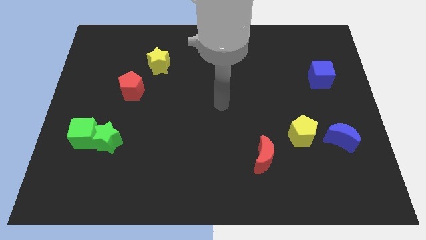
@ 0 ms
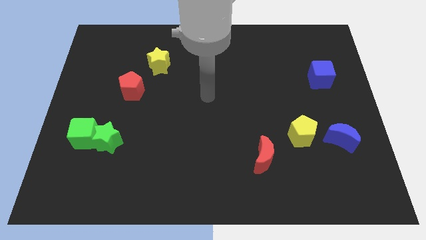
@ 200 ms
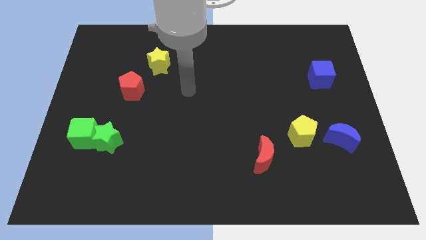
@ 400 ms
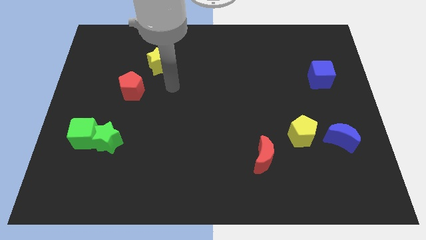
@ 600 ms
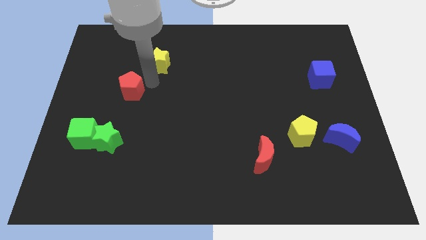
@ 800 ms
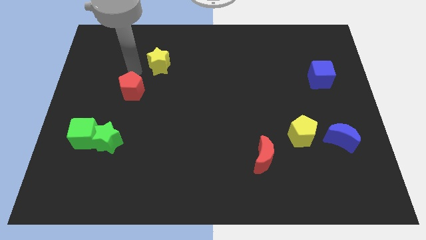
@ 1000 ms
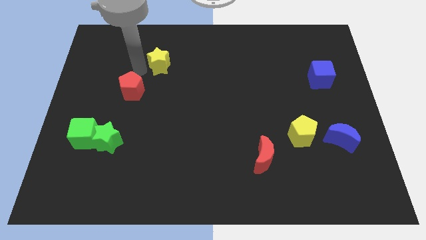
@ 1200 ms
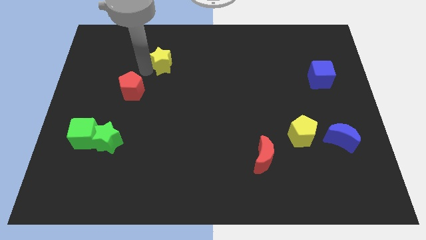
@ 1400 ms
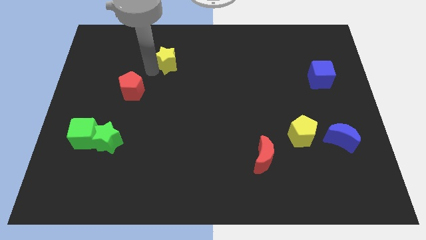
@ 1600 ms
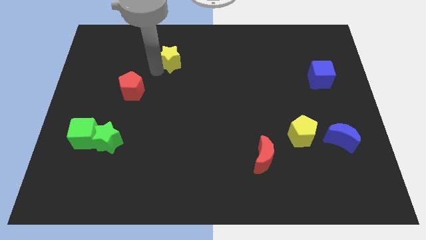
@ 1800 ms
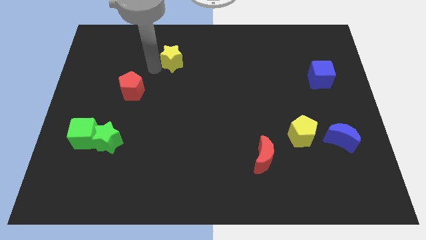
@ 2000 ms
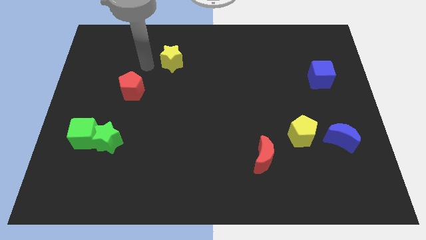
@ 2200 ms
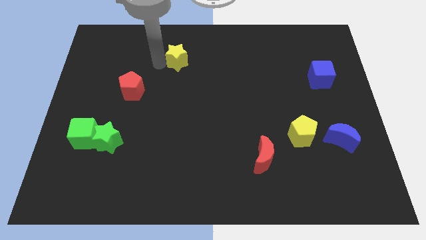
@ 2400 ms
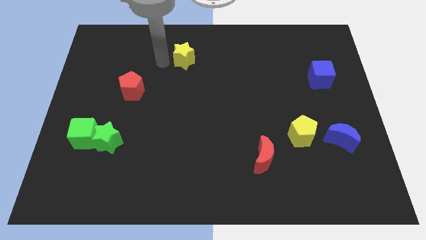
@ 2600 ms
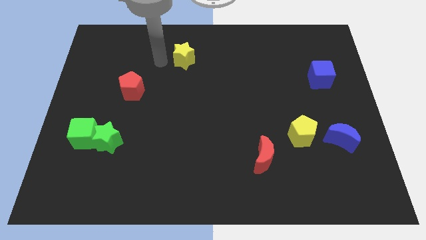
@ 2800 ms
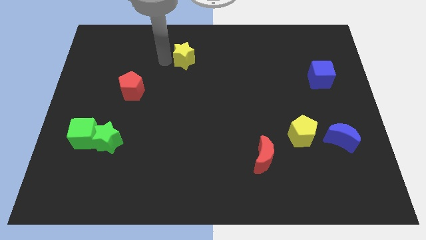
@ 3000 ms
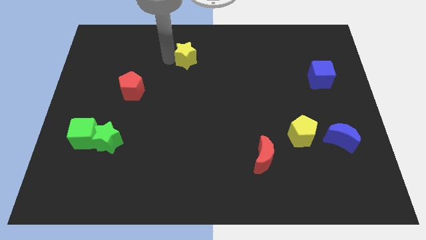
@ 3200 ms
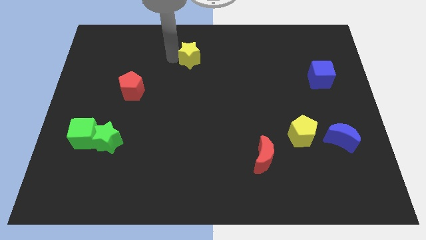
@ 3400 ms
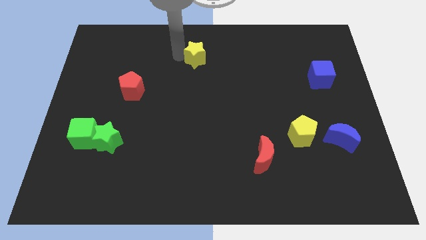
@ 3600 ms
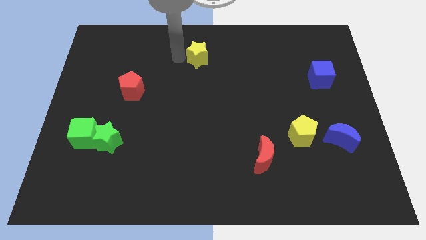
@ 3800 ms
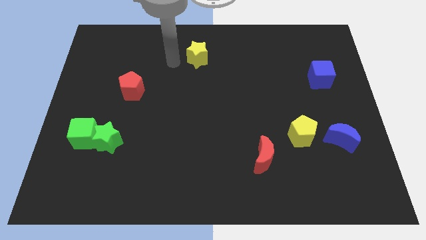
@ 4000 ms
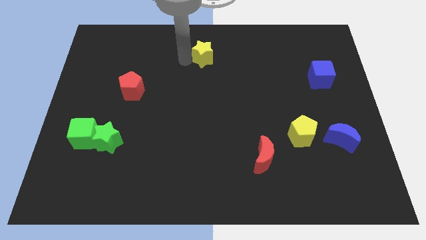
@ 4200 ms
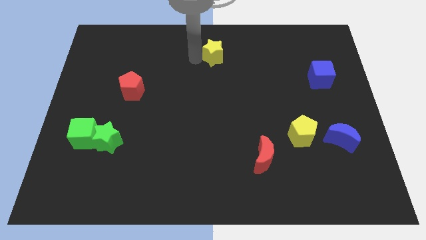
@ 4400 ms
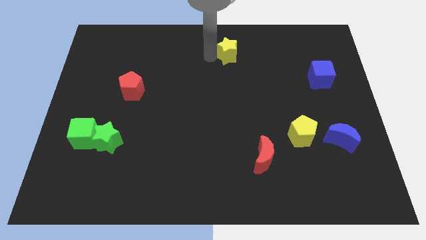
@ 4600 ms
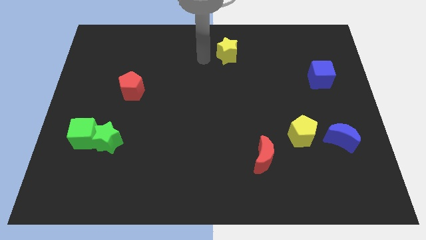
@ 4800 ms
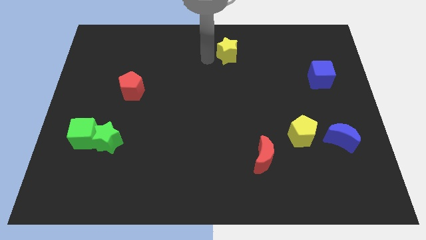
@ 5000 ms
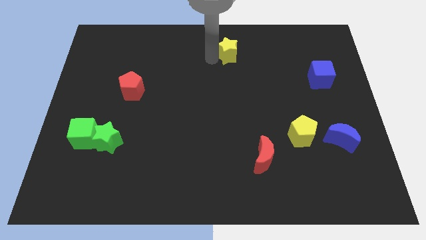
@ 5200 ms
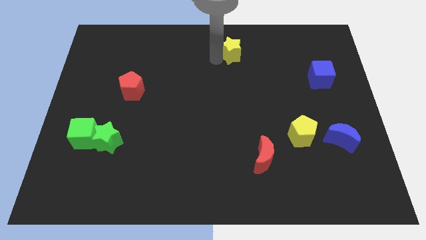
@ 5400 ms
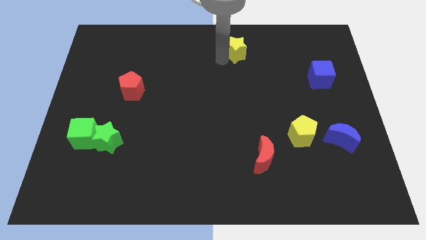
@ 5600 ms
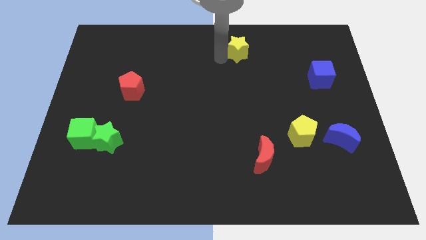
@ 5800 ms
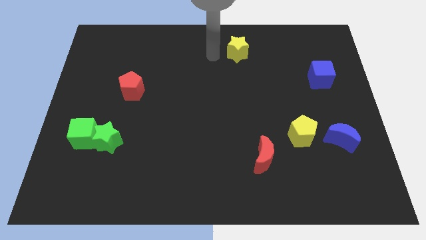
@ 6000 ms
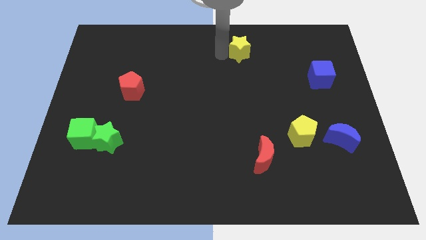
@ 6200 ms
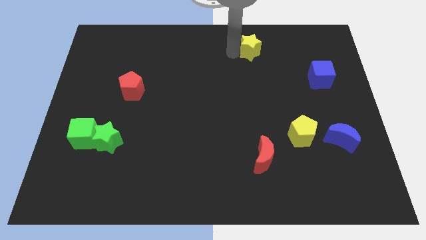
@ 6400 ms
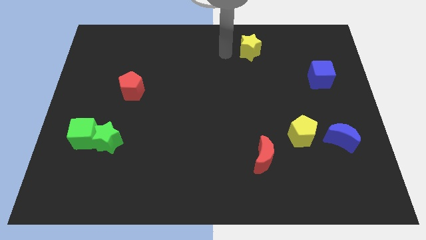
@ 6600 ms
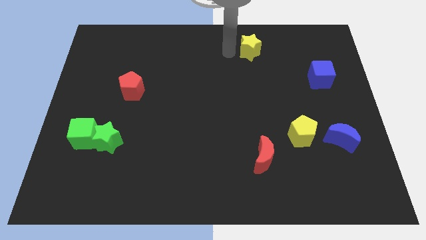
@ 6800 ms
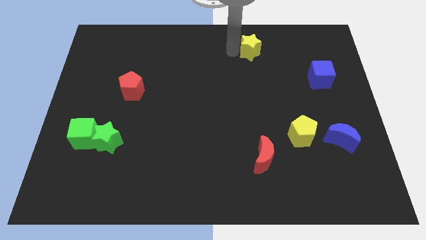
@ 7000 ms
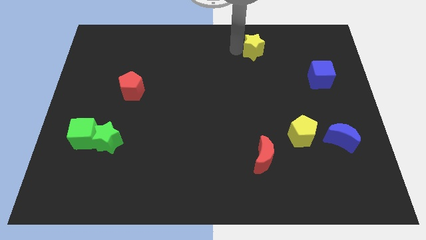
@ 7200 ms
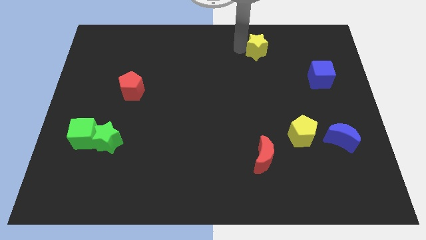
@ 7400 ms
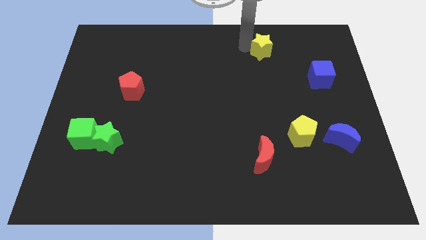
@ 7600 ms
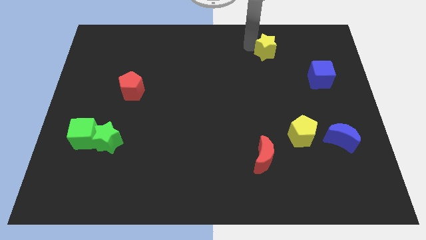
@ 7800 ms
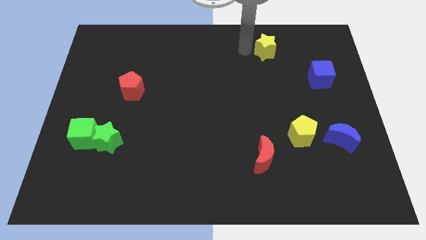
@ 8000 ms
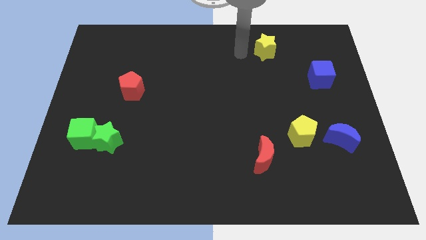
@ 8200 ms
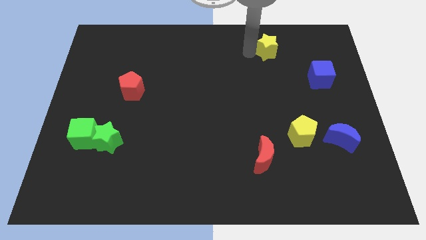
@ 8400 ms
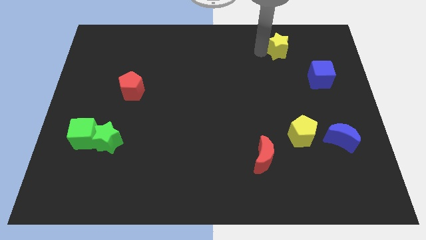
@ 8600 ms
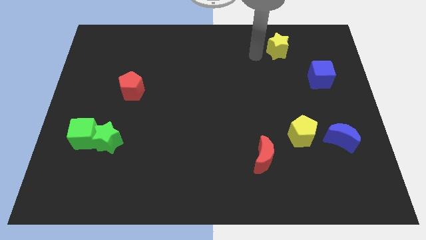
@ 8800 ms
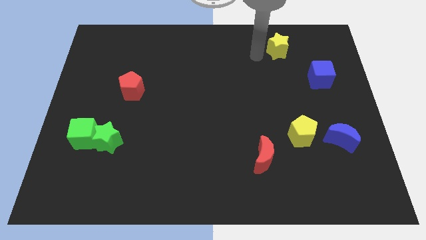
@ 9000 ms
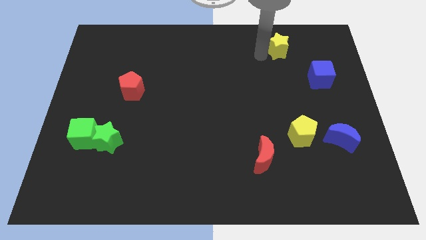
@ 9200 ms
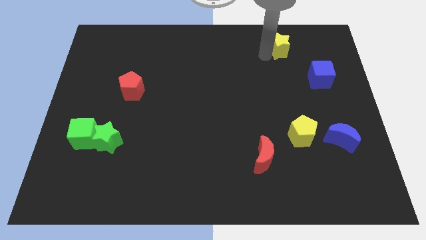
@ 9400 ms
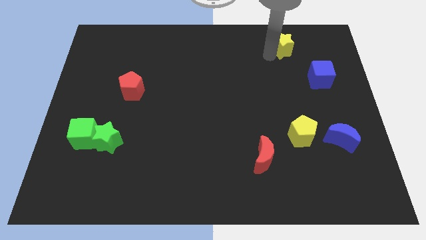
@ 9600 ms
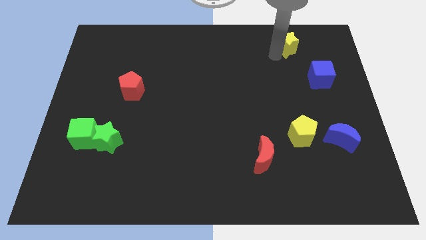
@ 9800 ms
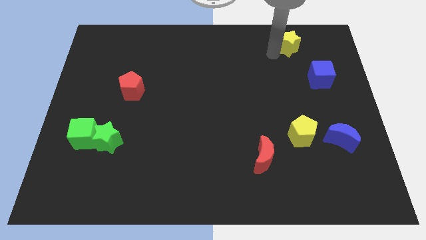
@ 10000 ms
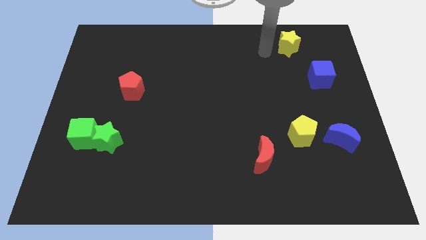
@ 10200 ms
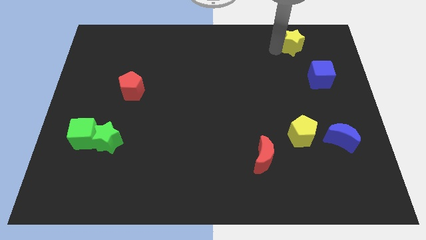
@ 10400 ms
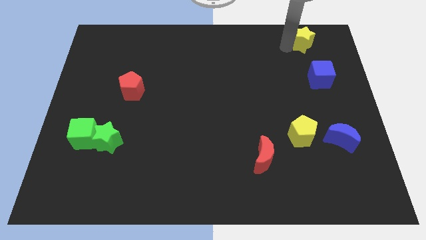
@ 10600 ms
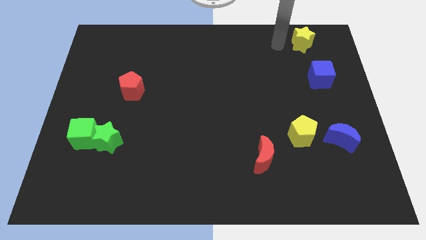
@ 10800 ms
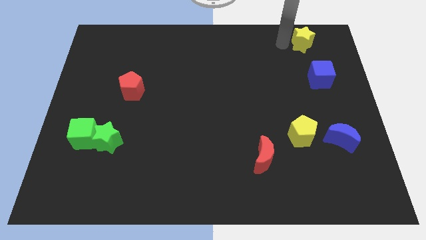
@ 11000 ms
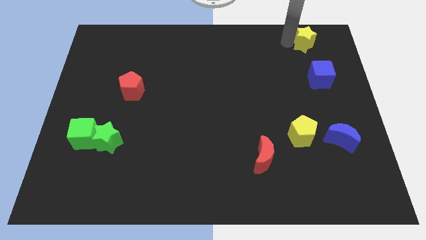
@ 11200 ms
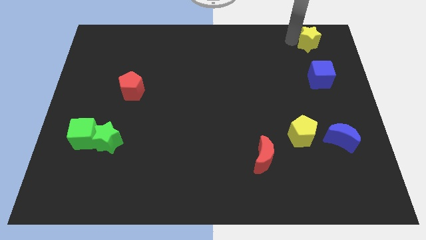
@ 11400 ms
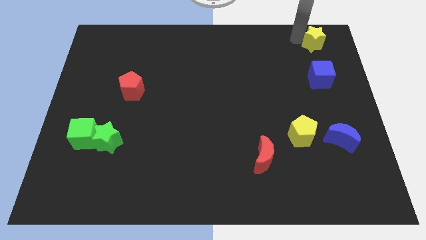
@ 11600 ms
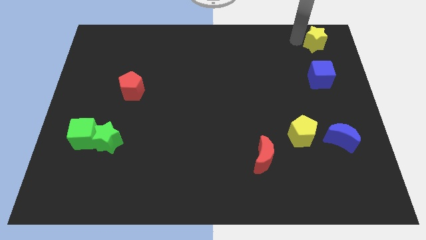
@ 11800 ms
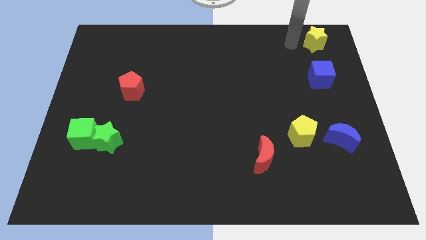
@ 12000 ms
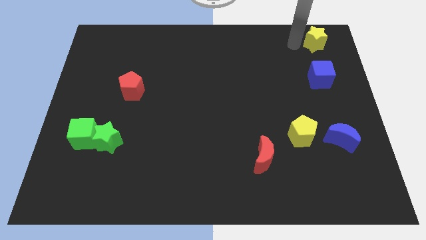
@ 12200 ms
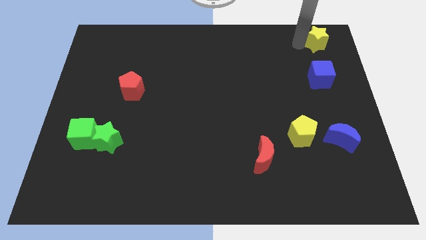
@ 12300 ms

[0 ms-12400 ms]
slide the yellow star to the top right

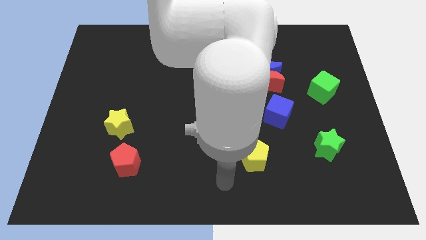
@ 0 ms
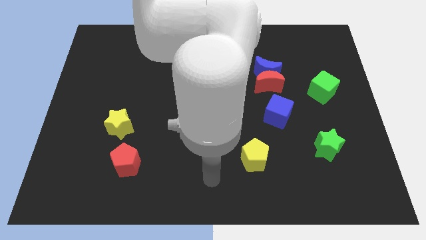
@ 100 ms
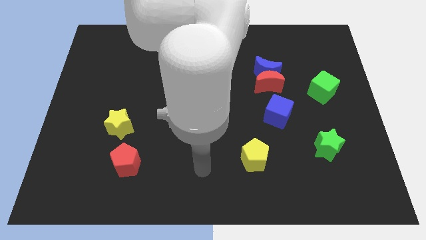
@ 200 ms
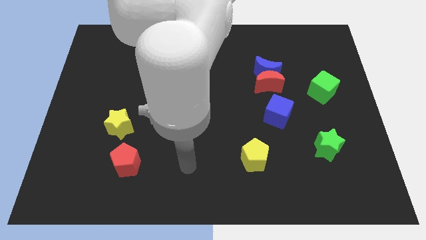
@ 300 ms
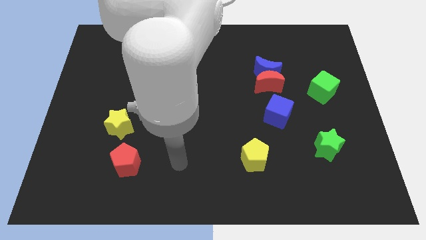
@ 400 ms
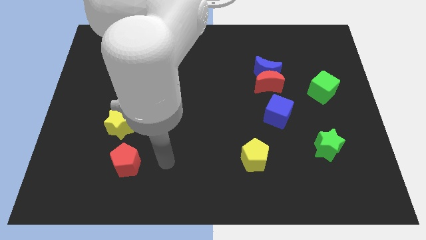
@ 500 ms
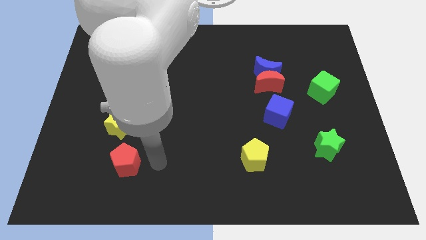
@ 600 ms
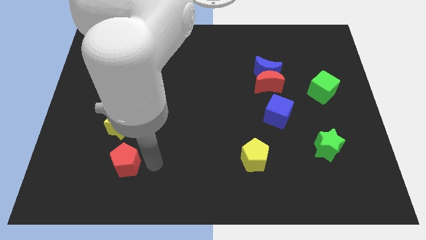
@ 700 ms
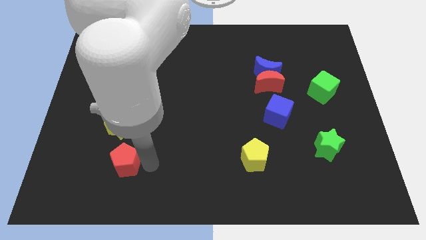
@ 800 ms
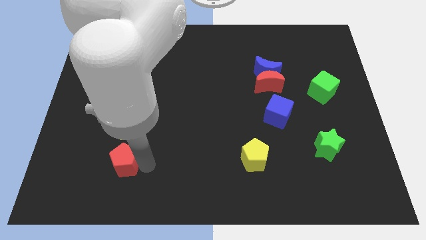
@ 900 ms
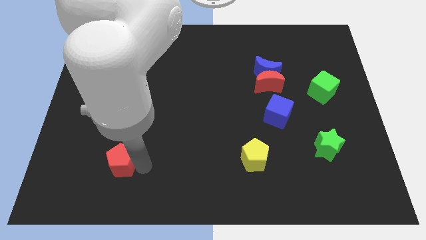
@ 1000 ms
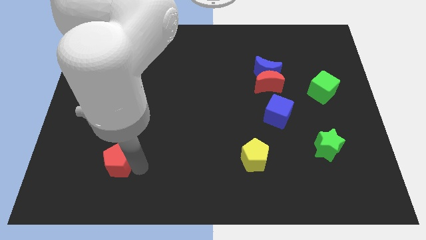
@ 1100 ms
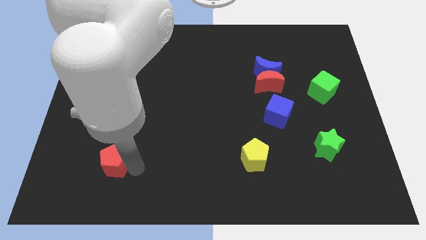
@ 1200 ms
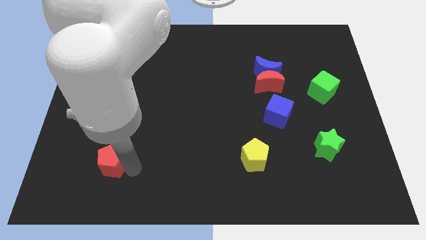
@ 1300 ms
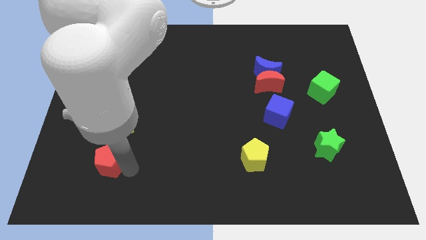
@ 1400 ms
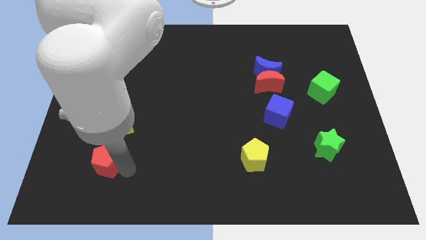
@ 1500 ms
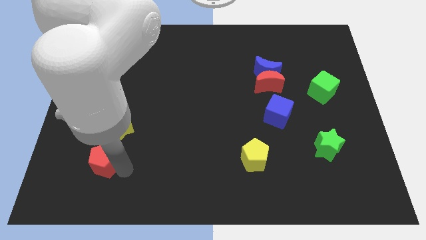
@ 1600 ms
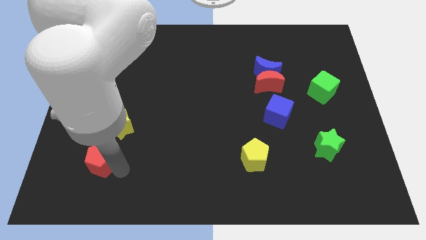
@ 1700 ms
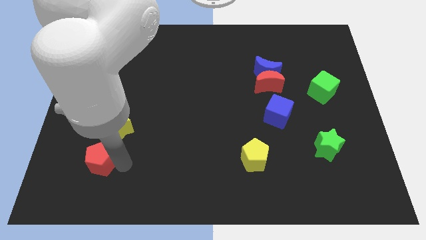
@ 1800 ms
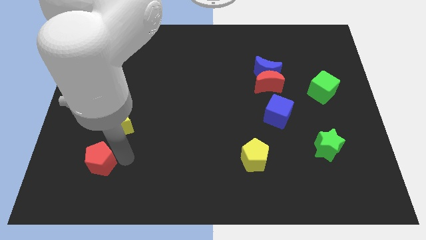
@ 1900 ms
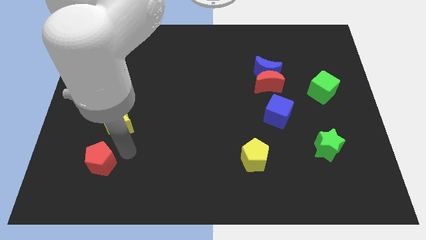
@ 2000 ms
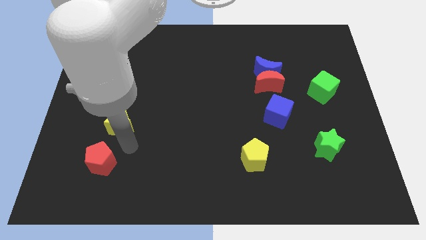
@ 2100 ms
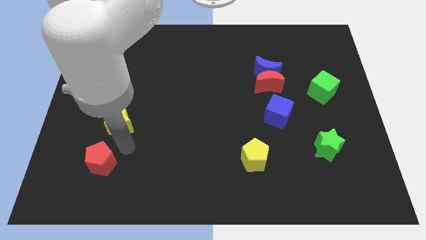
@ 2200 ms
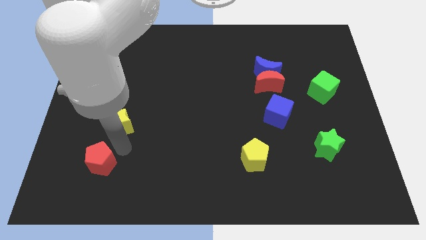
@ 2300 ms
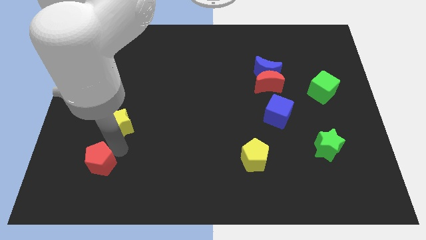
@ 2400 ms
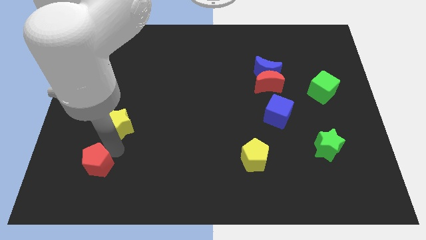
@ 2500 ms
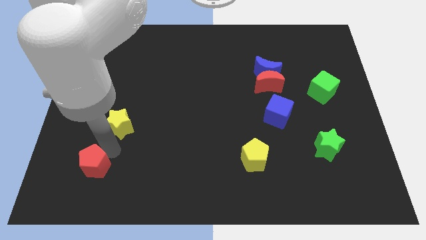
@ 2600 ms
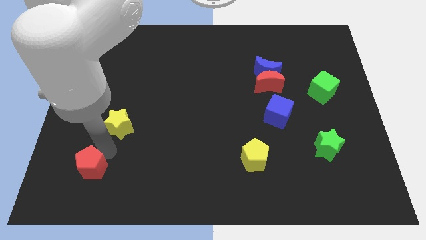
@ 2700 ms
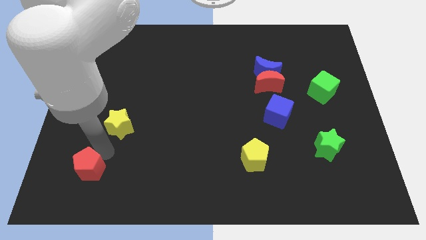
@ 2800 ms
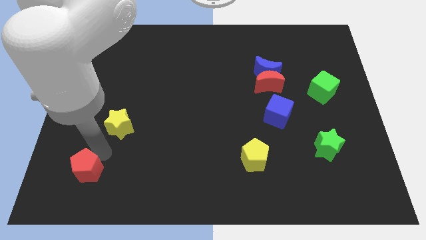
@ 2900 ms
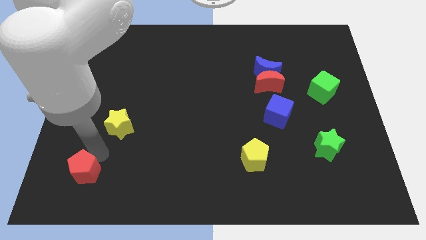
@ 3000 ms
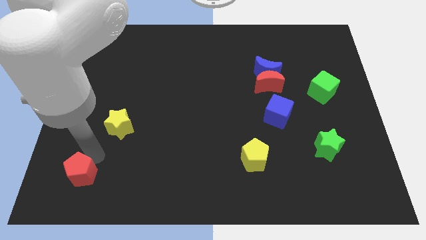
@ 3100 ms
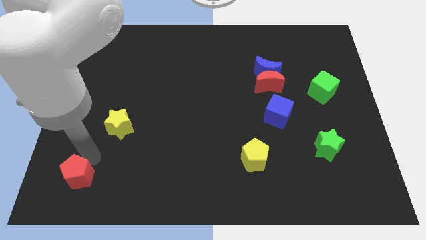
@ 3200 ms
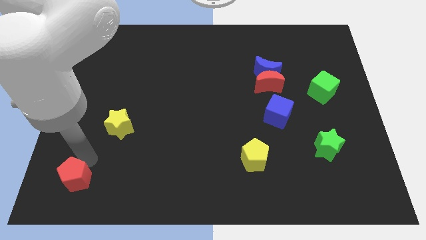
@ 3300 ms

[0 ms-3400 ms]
slide the red pentagon to the lower left corner
